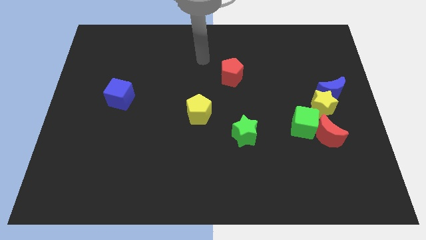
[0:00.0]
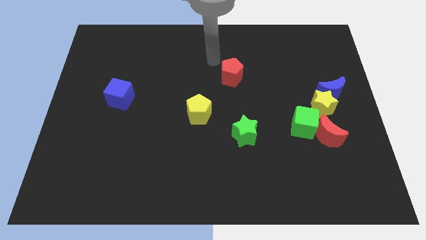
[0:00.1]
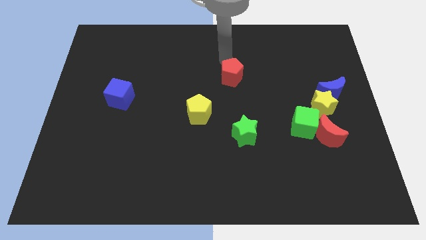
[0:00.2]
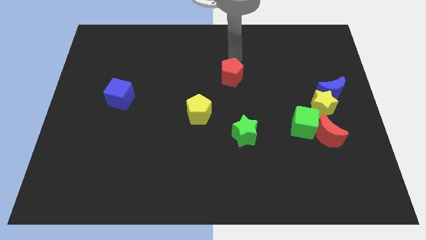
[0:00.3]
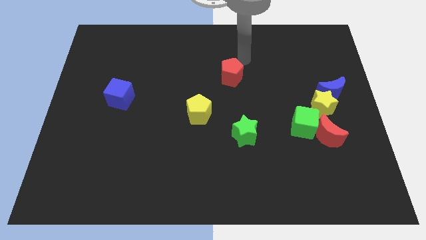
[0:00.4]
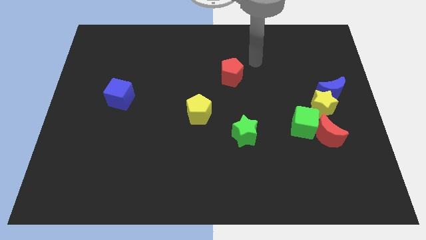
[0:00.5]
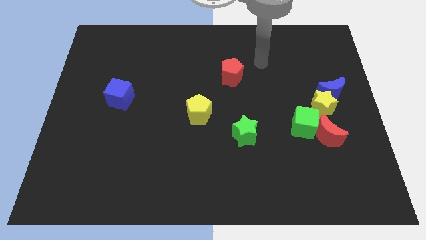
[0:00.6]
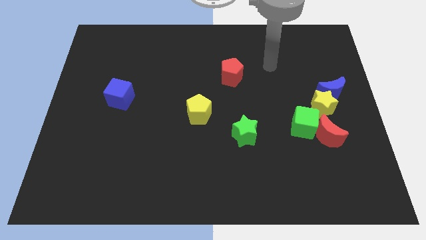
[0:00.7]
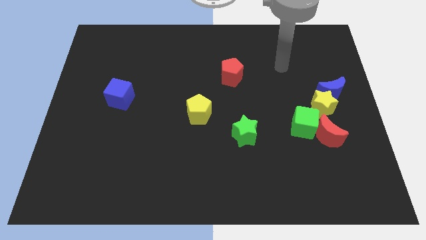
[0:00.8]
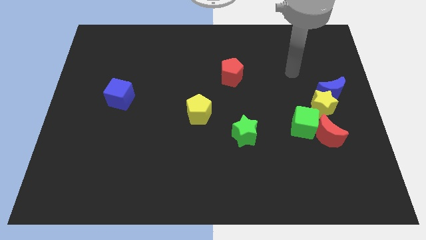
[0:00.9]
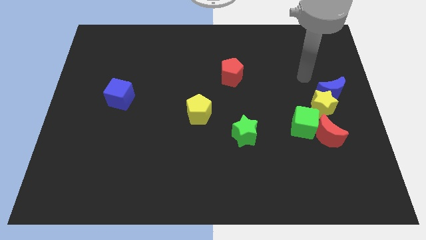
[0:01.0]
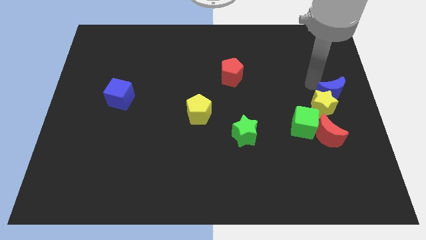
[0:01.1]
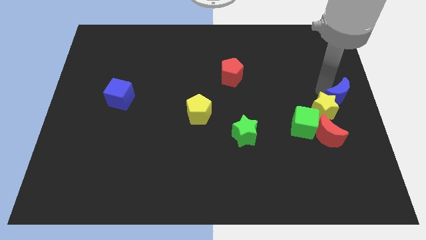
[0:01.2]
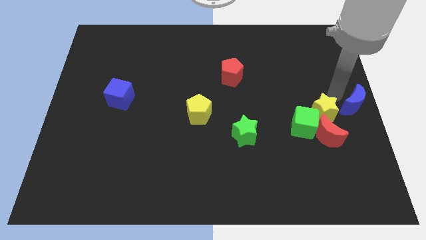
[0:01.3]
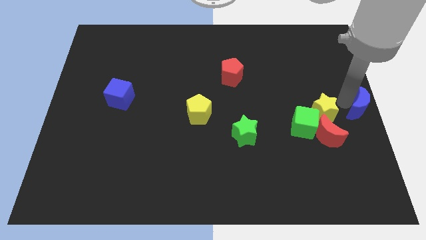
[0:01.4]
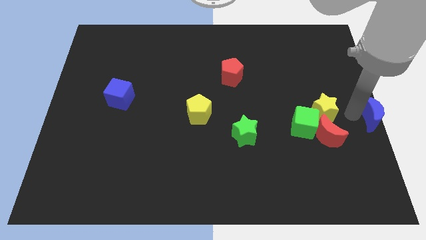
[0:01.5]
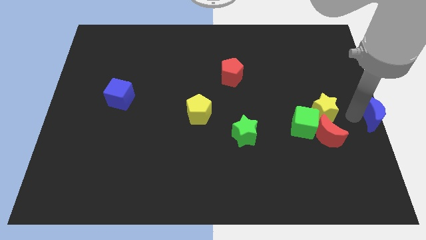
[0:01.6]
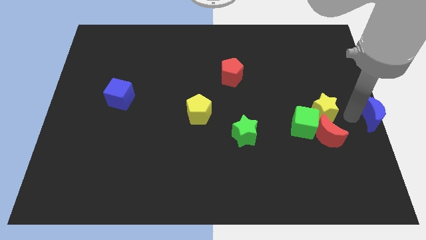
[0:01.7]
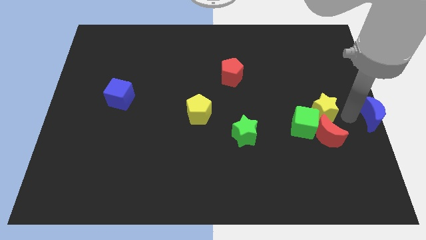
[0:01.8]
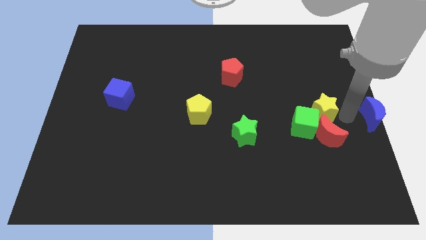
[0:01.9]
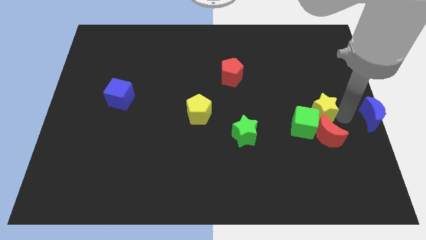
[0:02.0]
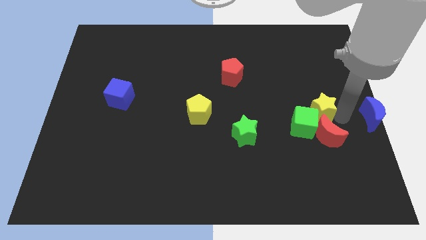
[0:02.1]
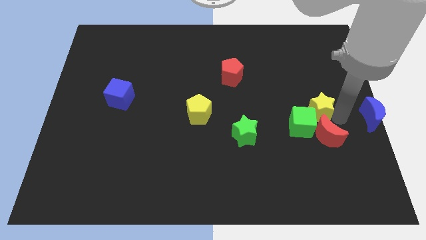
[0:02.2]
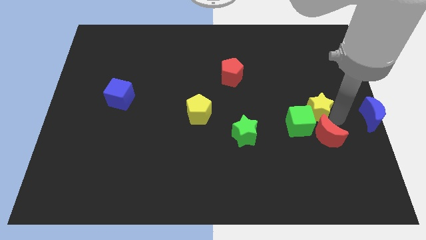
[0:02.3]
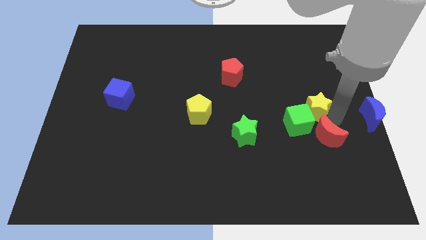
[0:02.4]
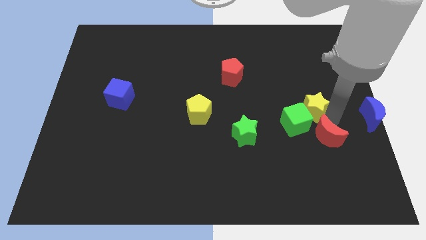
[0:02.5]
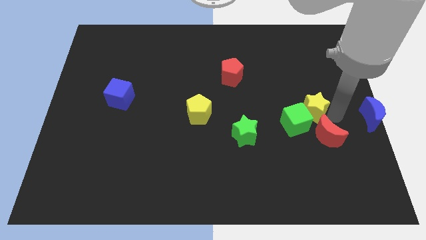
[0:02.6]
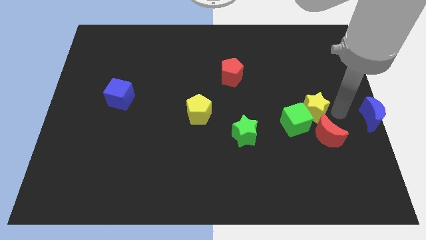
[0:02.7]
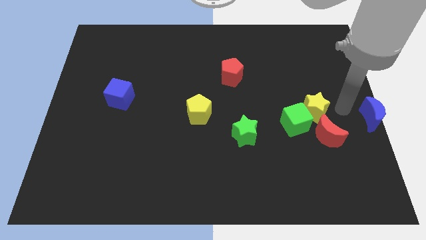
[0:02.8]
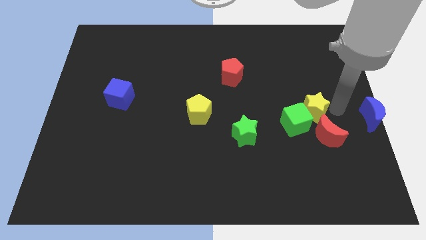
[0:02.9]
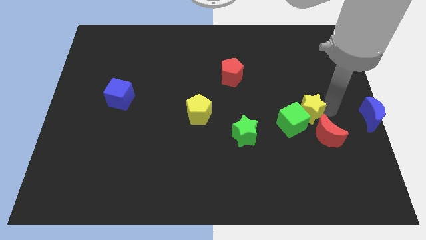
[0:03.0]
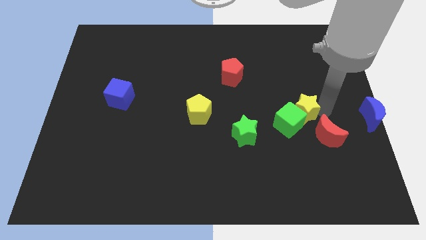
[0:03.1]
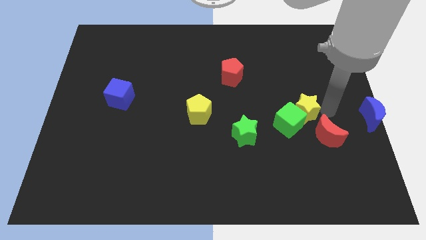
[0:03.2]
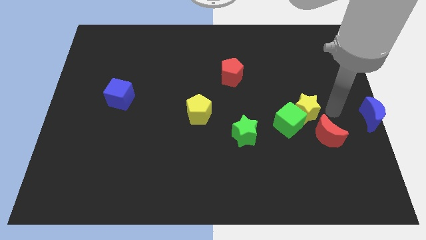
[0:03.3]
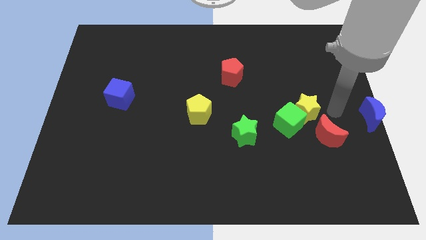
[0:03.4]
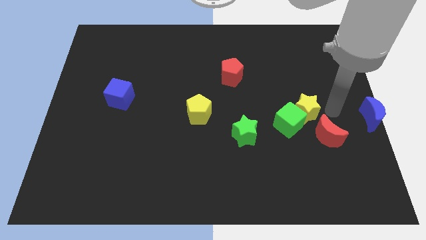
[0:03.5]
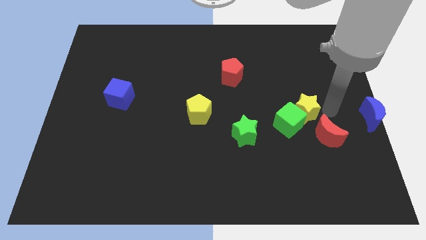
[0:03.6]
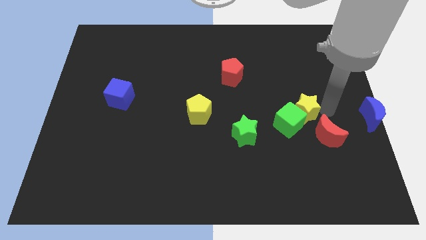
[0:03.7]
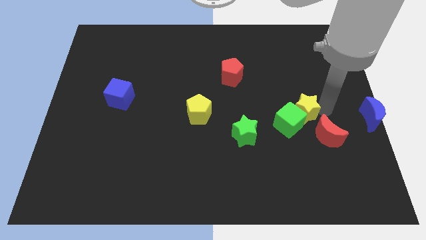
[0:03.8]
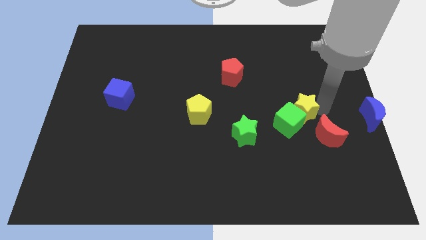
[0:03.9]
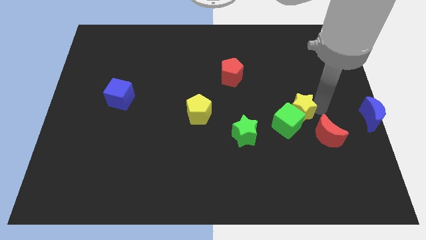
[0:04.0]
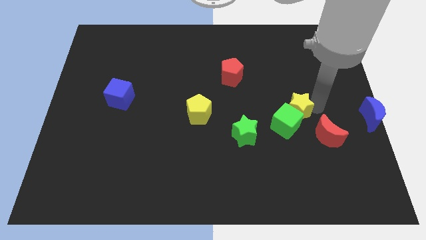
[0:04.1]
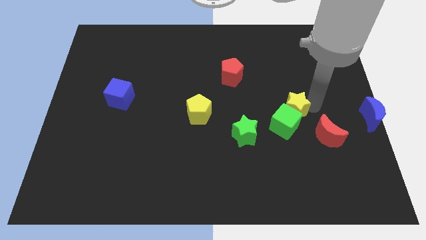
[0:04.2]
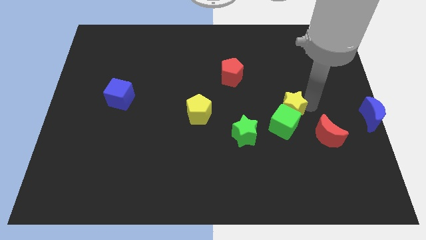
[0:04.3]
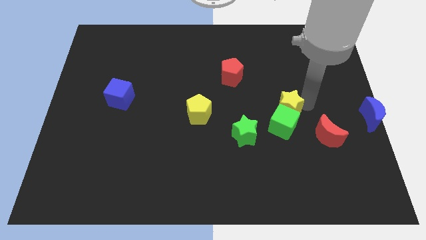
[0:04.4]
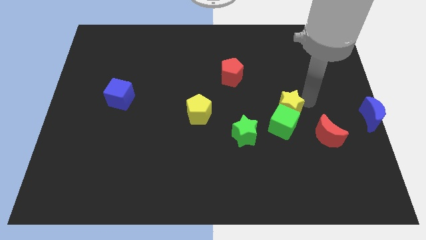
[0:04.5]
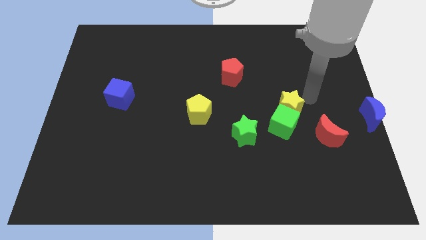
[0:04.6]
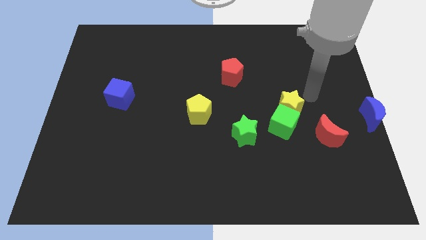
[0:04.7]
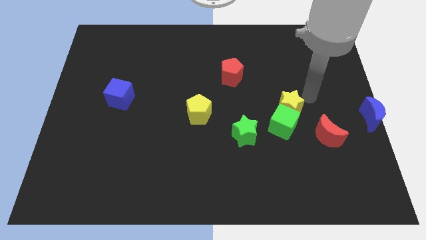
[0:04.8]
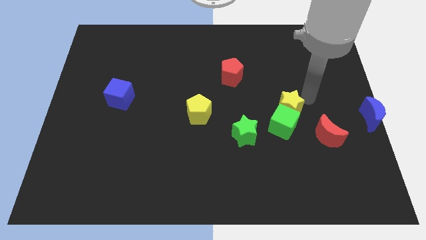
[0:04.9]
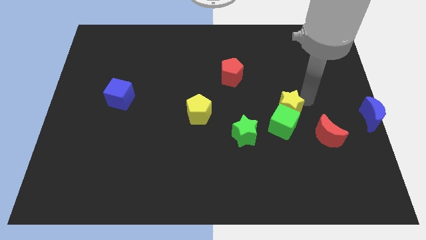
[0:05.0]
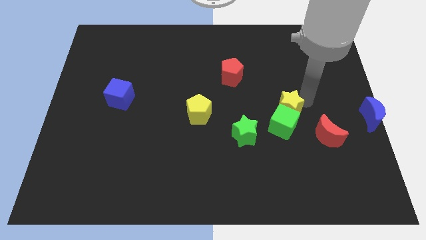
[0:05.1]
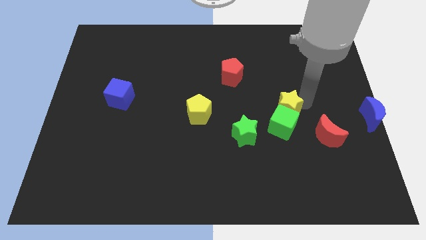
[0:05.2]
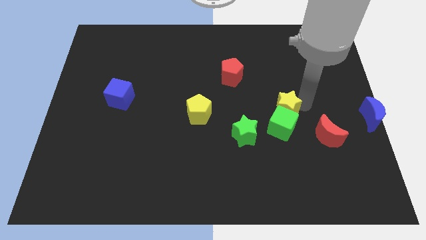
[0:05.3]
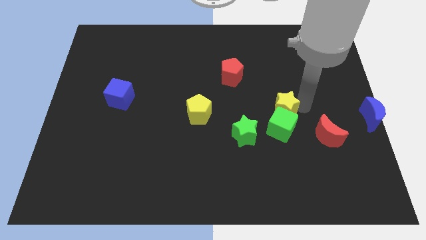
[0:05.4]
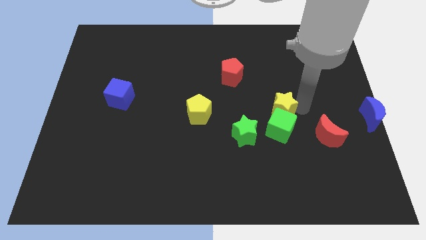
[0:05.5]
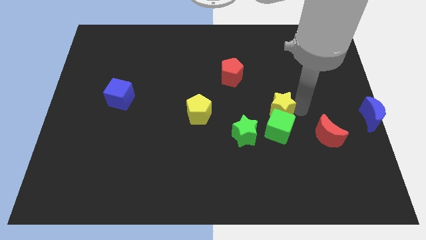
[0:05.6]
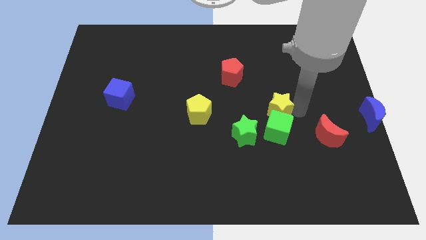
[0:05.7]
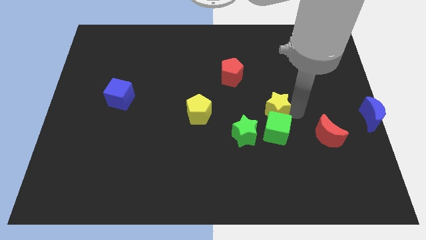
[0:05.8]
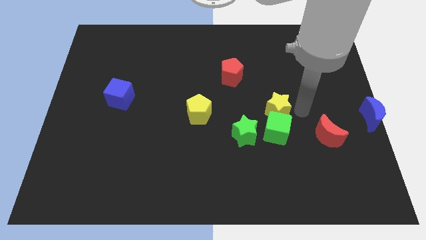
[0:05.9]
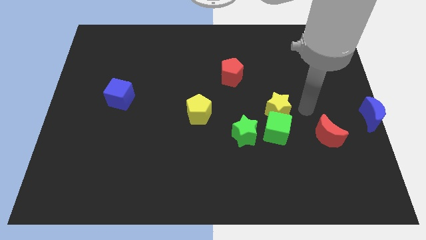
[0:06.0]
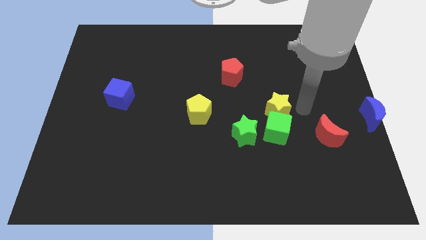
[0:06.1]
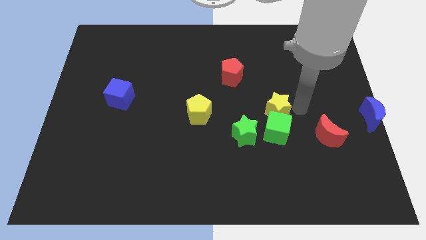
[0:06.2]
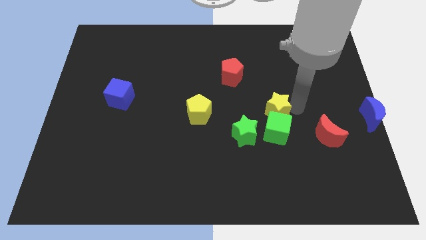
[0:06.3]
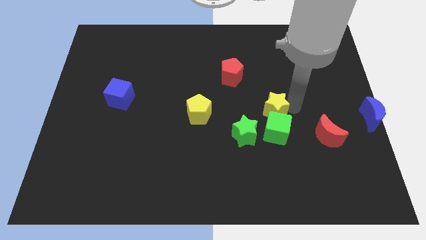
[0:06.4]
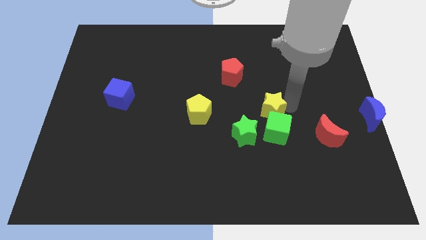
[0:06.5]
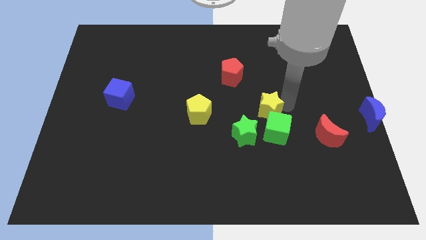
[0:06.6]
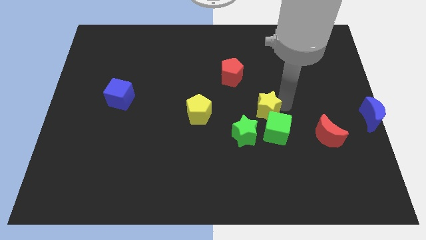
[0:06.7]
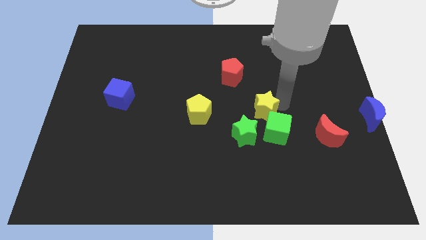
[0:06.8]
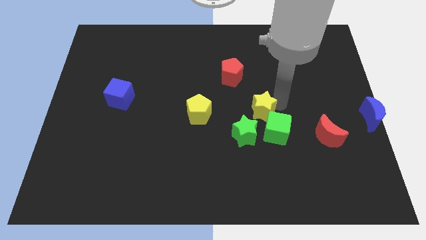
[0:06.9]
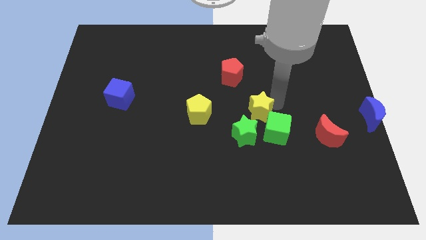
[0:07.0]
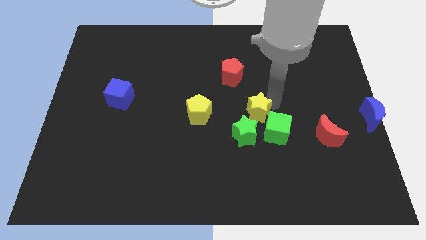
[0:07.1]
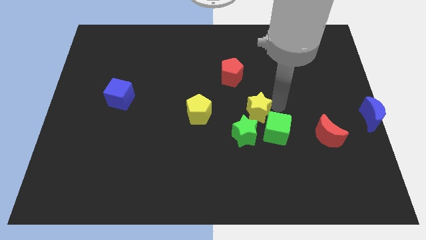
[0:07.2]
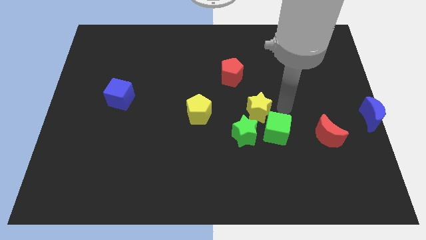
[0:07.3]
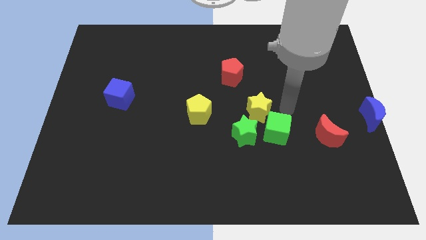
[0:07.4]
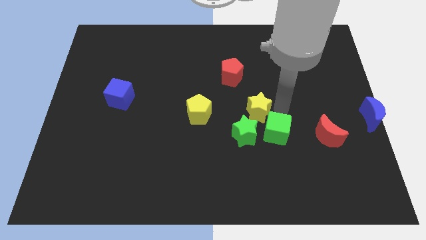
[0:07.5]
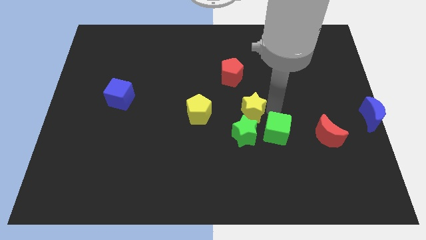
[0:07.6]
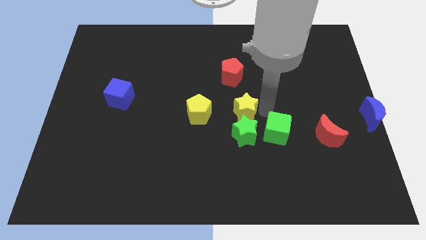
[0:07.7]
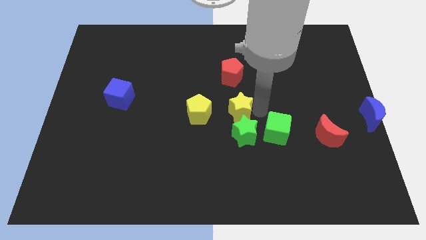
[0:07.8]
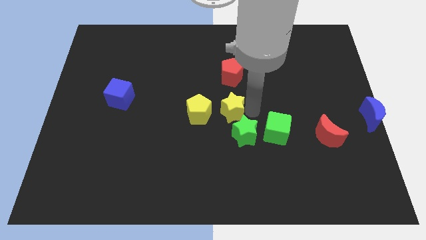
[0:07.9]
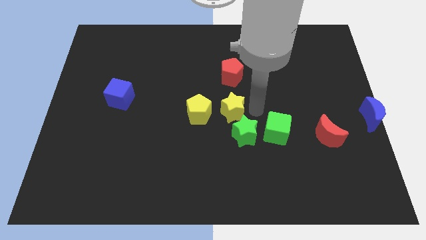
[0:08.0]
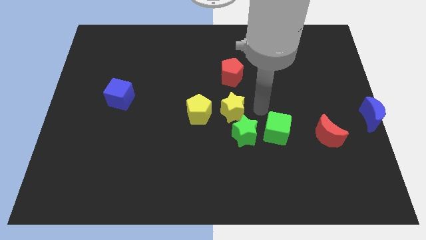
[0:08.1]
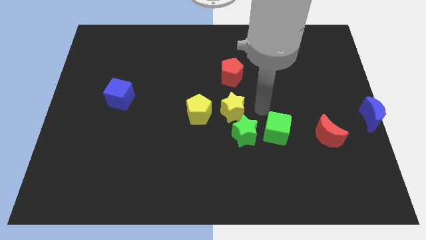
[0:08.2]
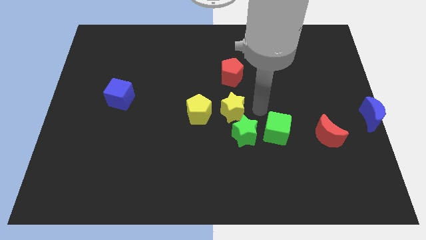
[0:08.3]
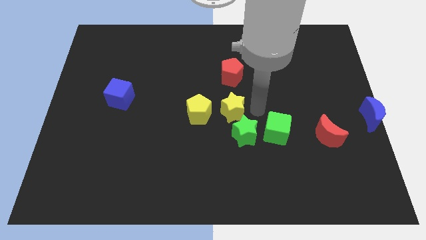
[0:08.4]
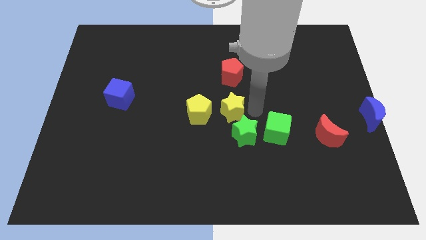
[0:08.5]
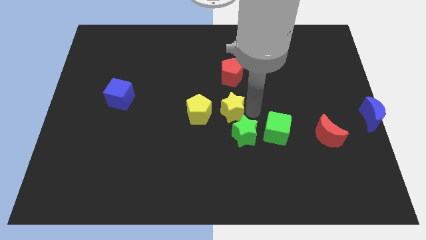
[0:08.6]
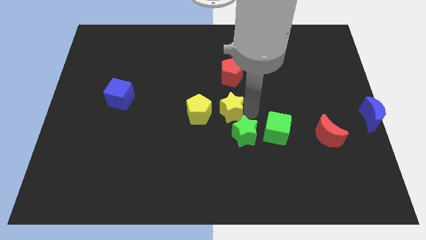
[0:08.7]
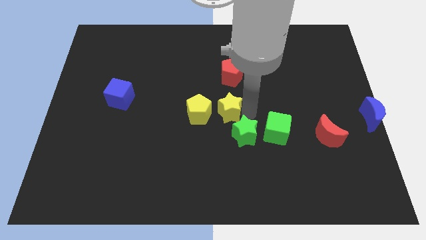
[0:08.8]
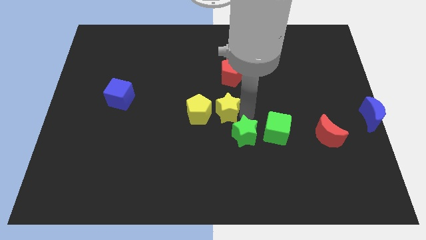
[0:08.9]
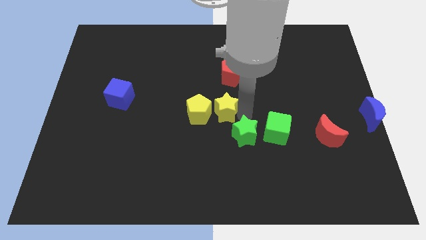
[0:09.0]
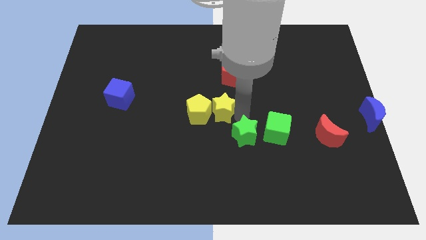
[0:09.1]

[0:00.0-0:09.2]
put the yellow star close to the yellow pentagon
